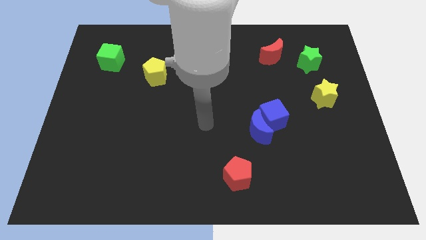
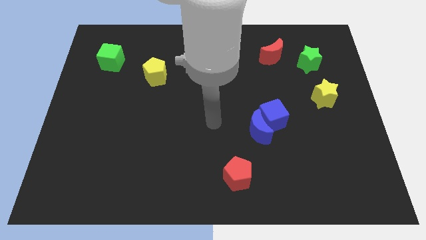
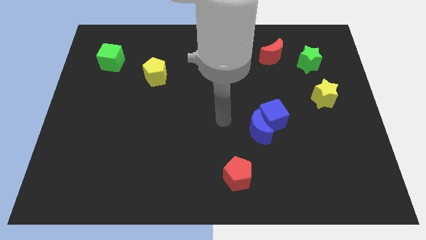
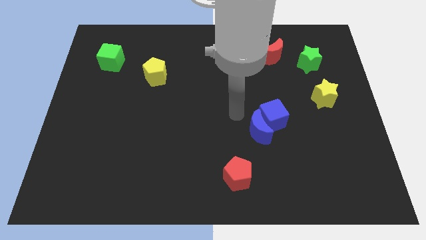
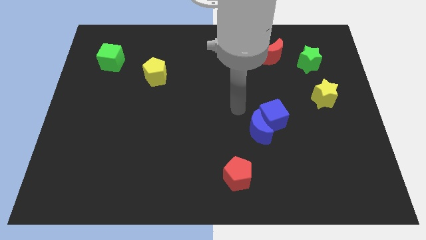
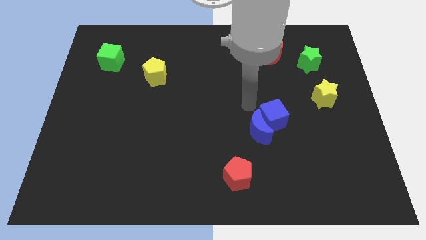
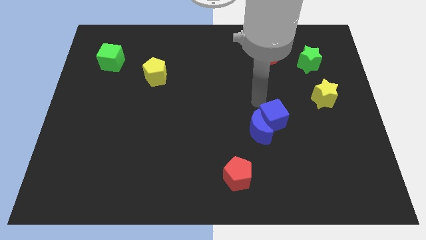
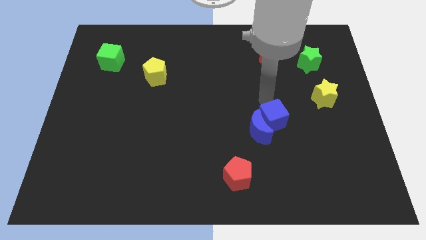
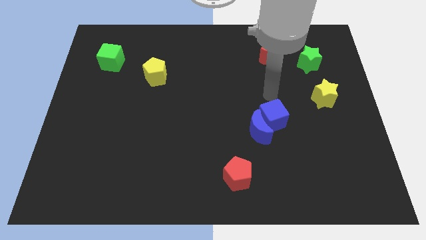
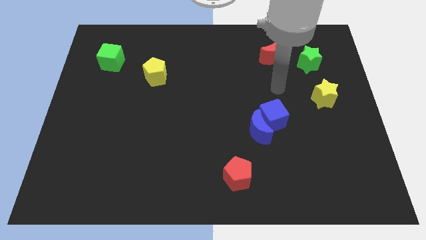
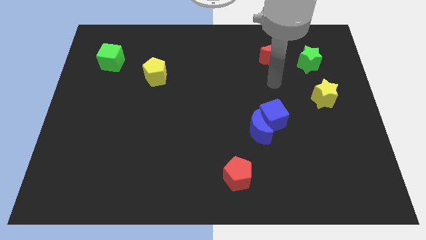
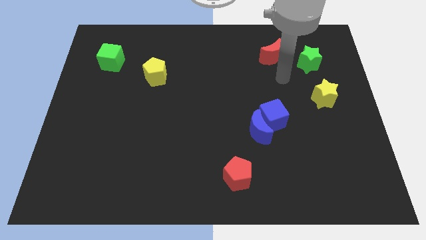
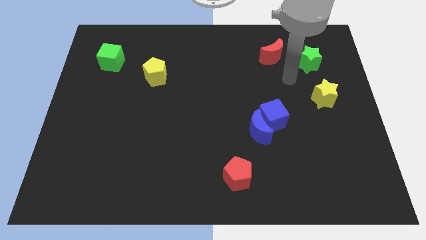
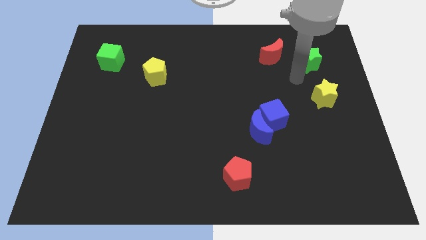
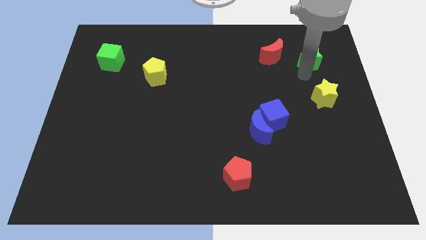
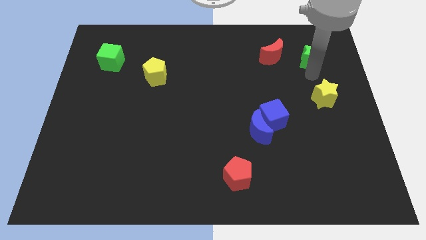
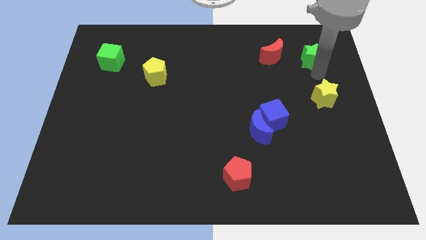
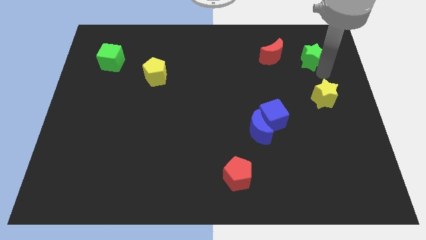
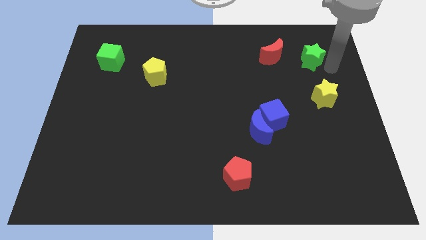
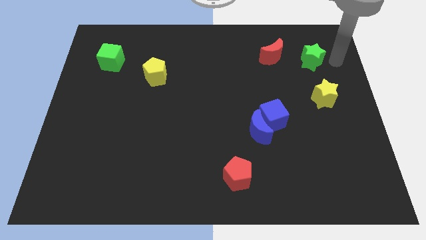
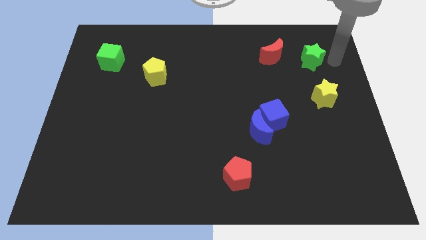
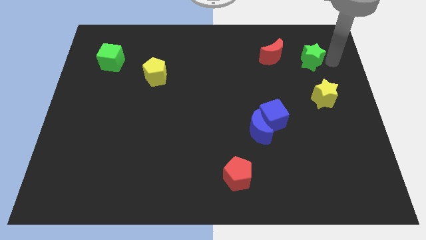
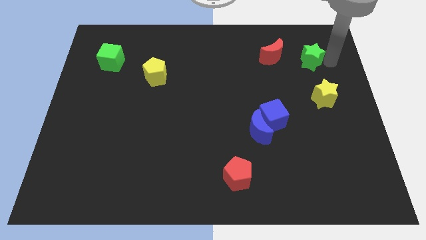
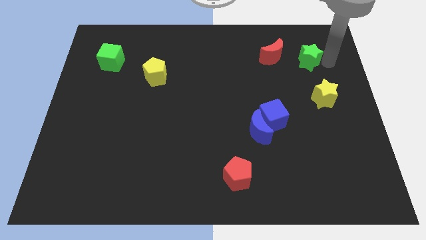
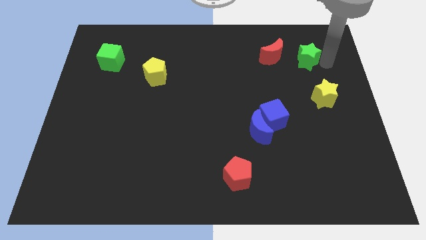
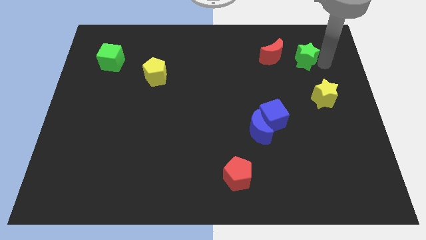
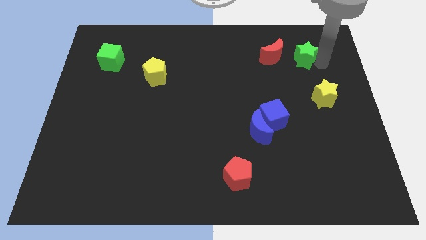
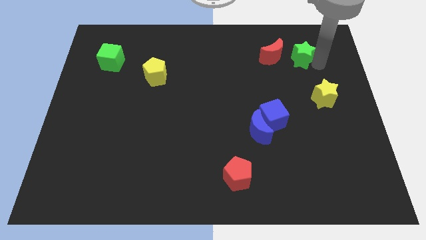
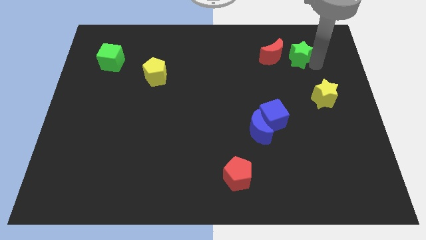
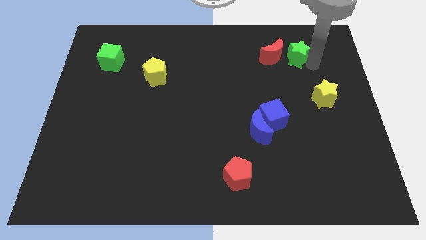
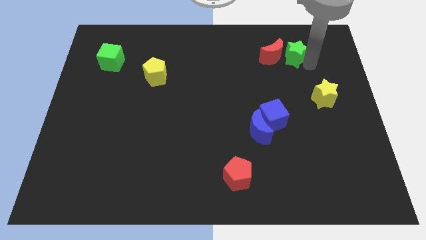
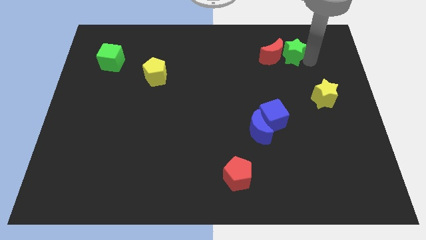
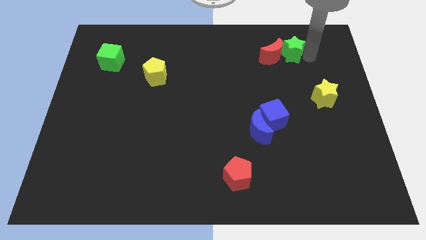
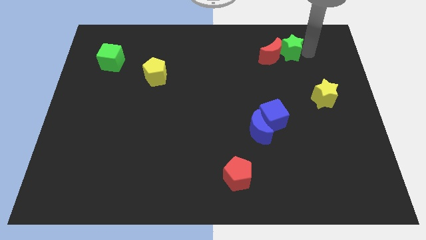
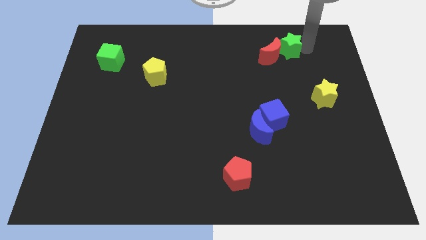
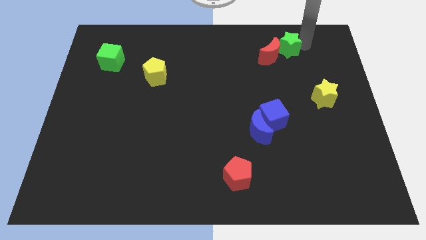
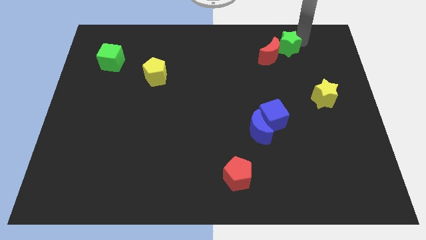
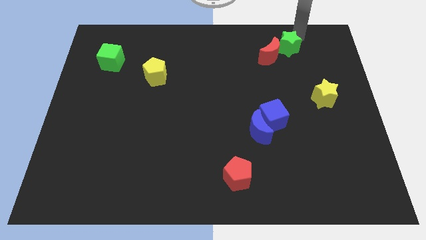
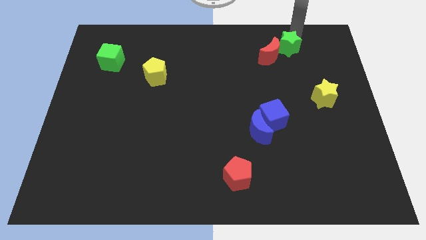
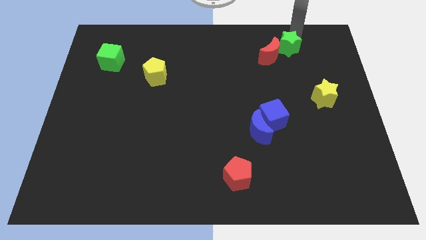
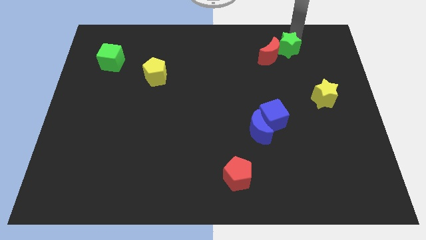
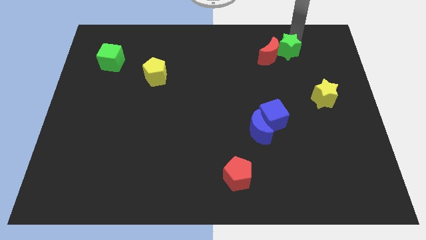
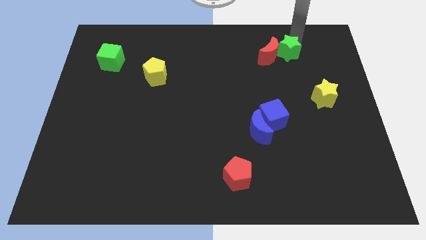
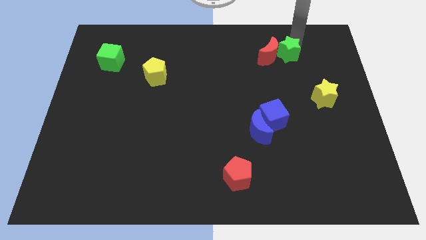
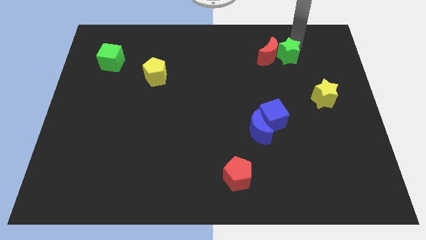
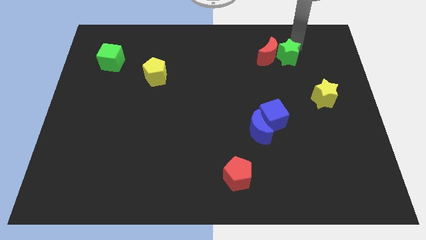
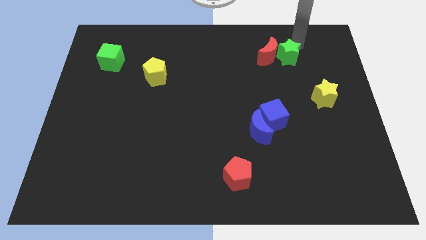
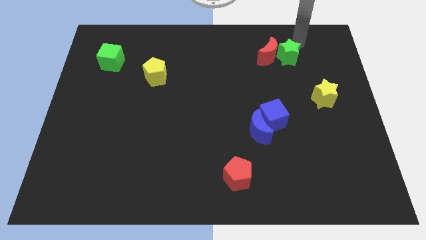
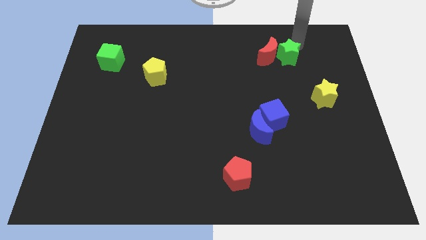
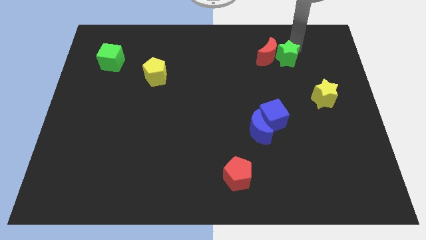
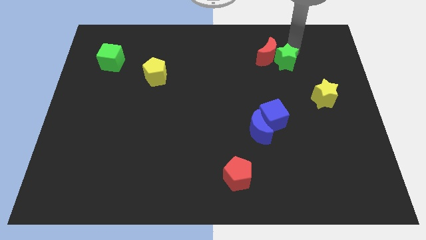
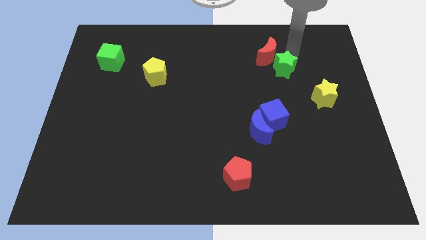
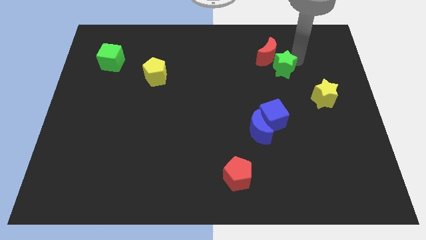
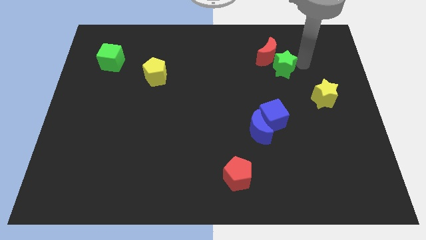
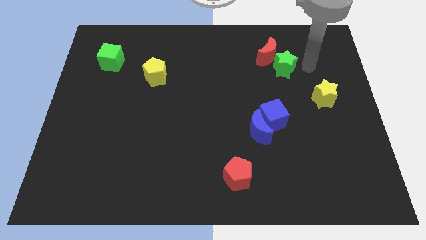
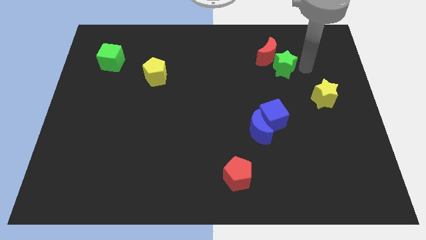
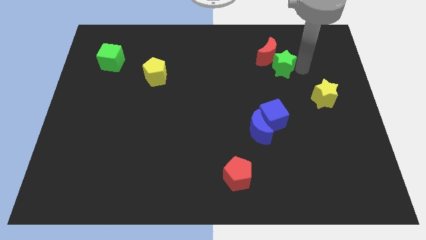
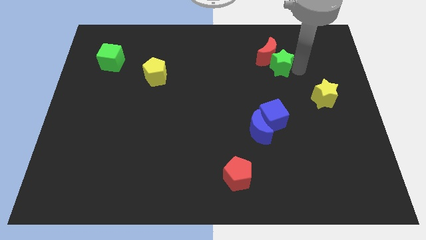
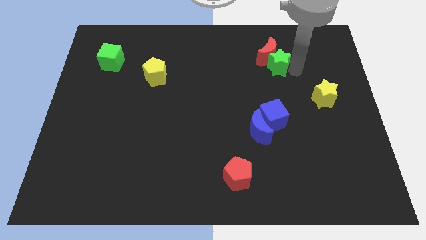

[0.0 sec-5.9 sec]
push the green star to the bottom left of the red moon

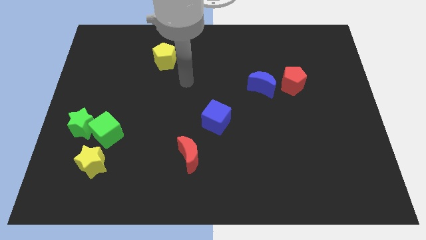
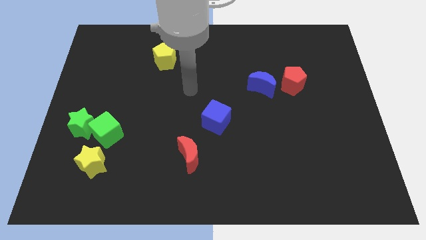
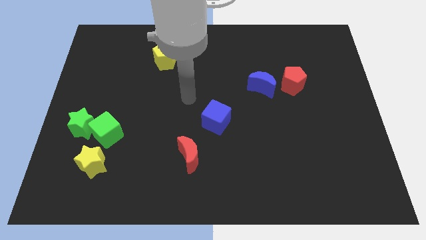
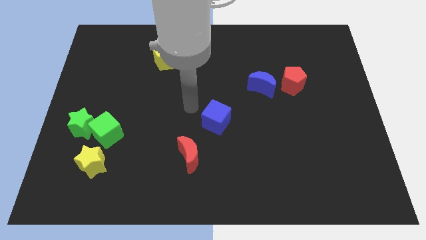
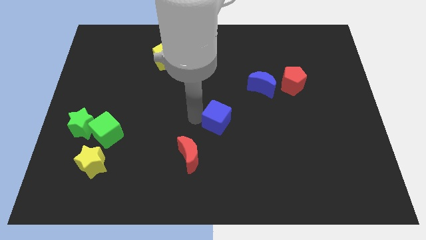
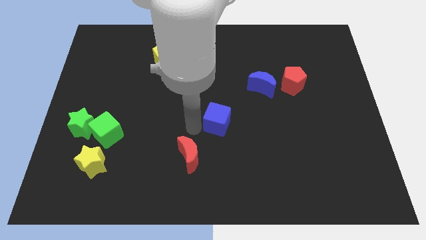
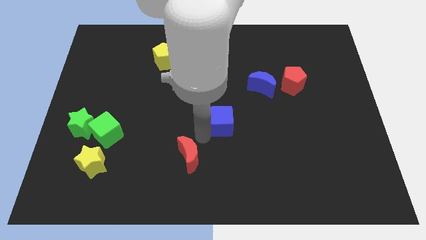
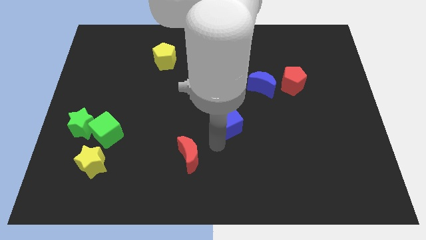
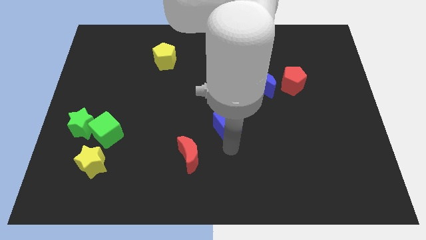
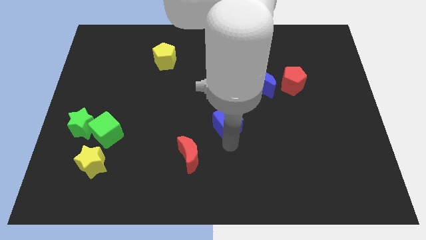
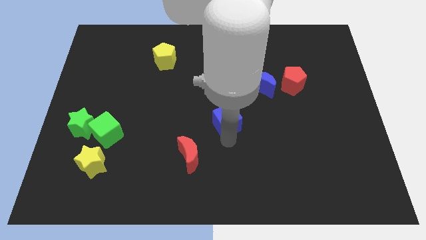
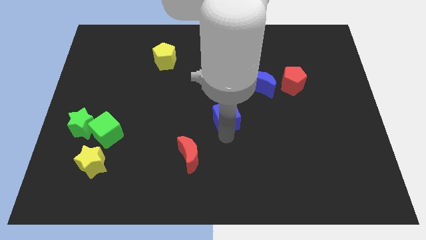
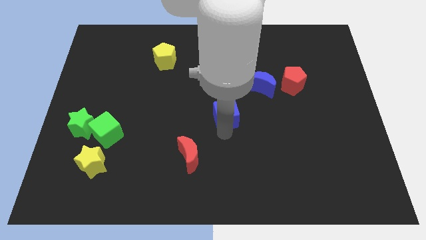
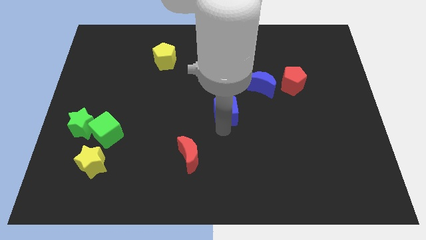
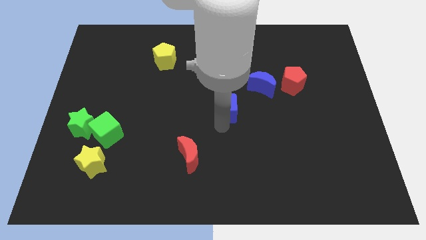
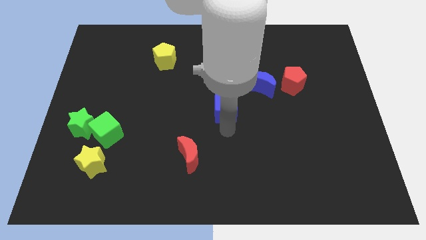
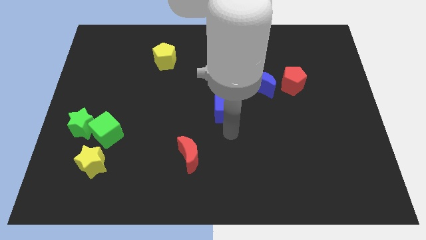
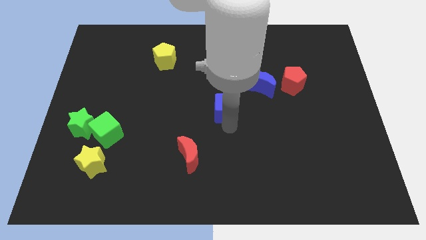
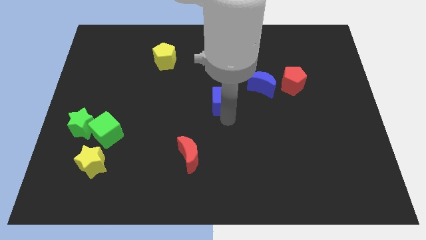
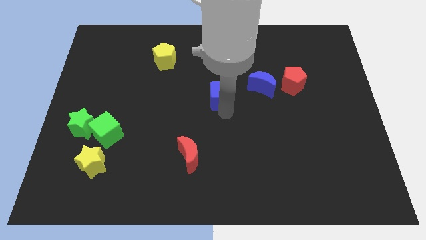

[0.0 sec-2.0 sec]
push the blue cube left of the blue moon
